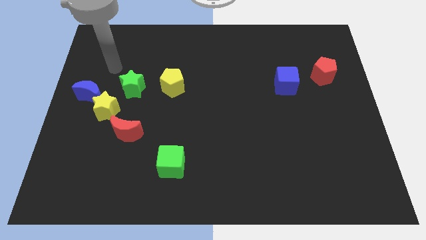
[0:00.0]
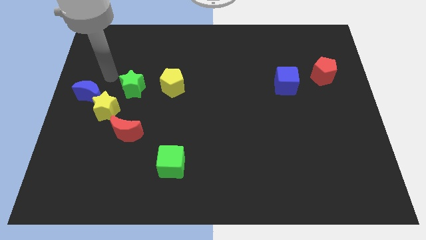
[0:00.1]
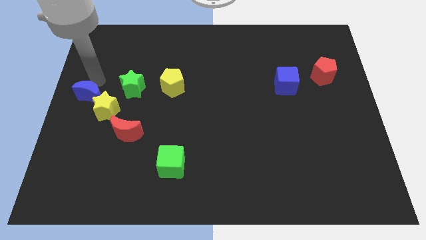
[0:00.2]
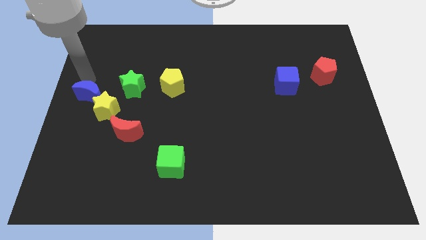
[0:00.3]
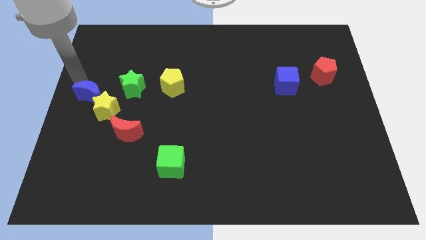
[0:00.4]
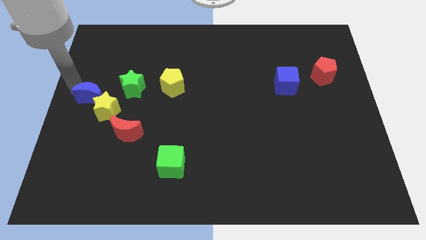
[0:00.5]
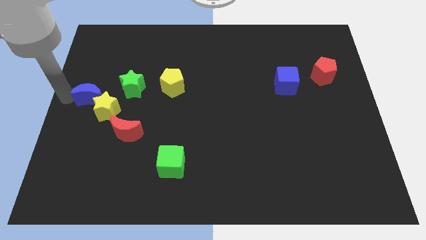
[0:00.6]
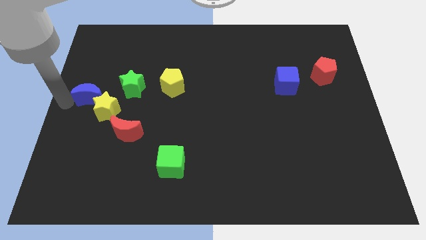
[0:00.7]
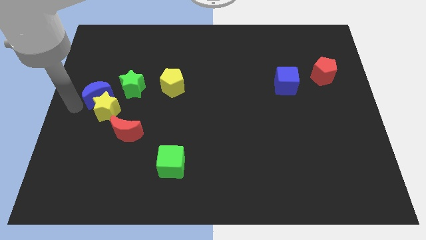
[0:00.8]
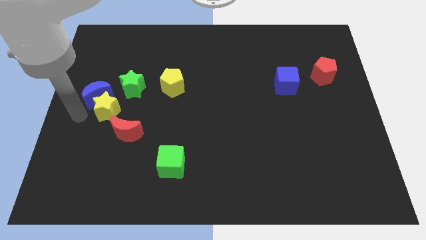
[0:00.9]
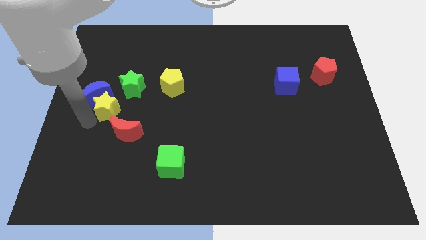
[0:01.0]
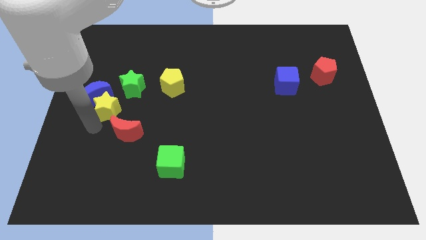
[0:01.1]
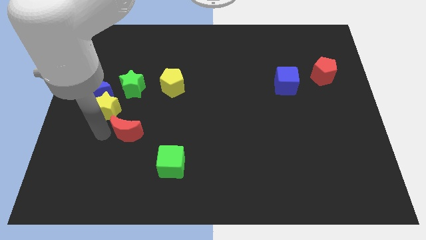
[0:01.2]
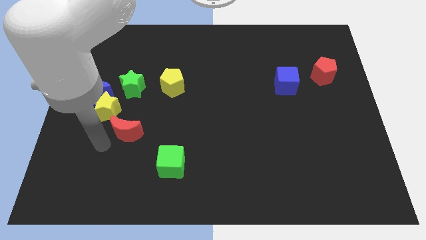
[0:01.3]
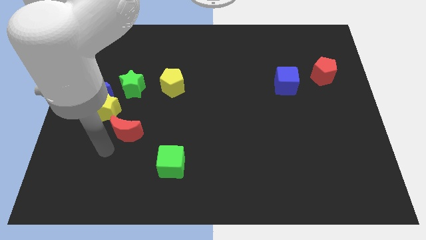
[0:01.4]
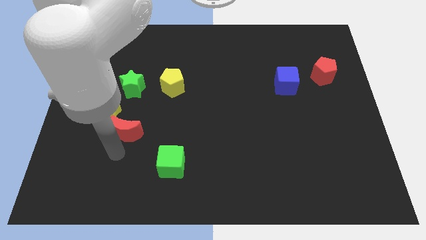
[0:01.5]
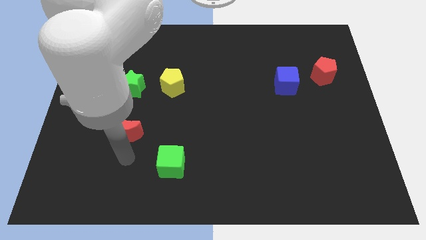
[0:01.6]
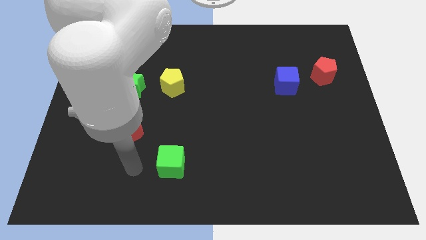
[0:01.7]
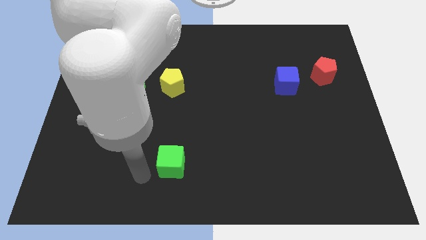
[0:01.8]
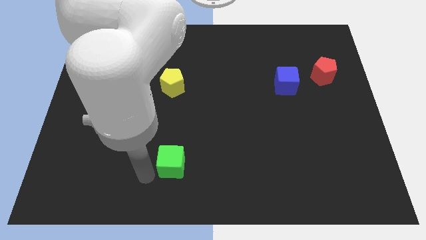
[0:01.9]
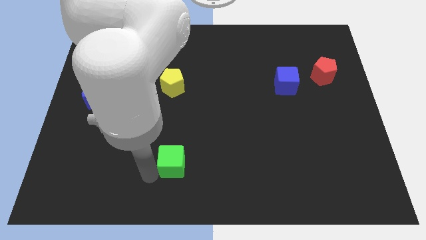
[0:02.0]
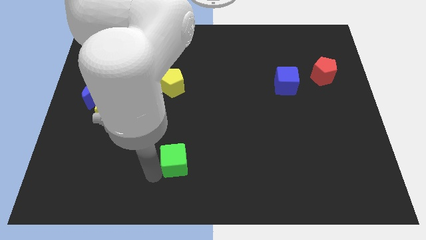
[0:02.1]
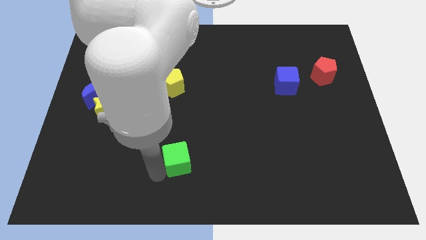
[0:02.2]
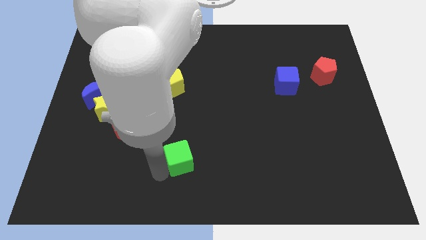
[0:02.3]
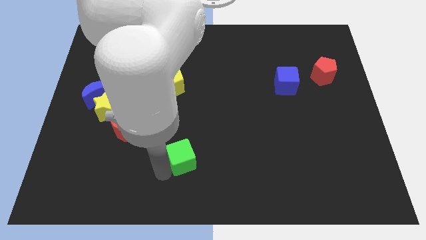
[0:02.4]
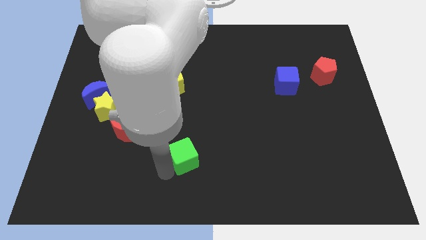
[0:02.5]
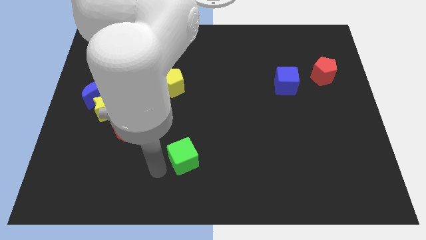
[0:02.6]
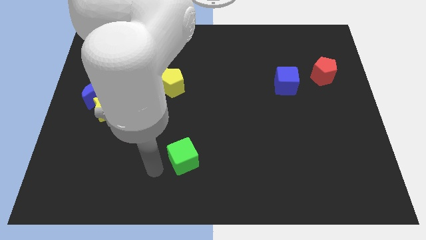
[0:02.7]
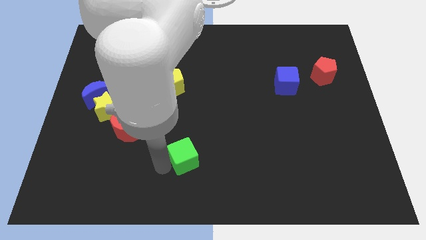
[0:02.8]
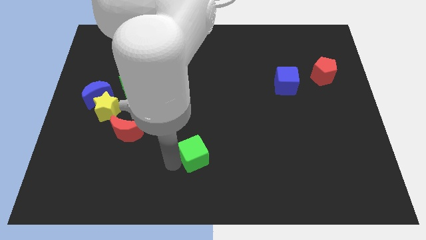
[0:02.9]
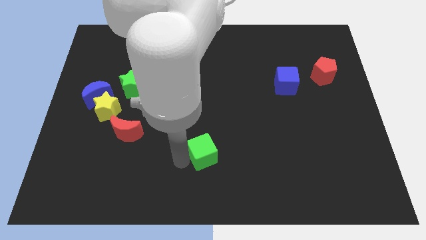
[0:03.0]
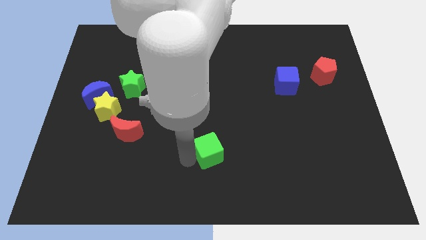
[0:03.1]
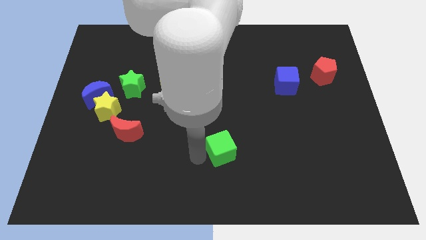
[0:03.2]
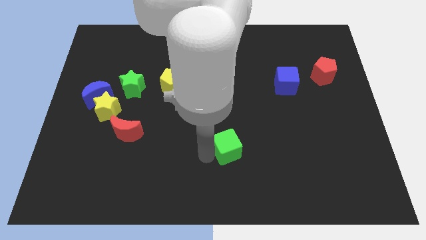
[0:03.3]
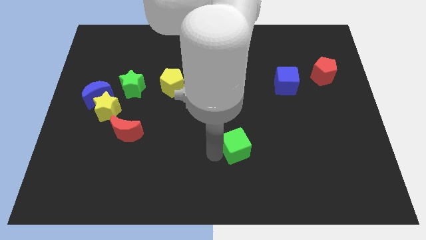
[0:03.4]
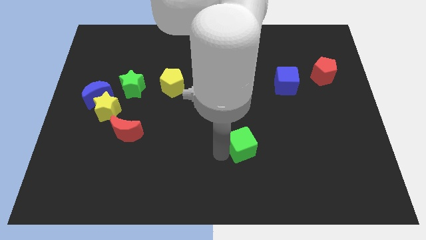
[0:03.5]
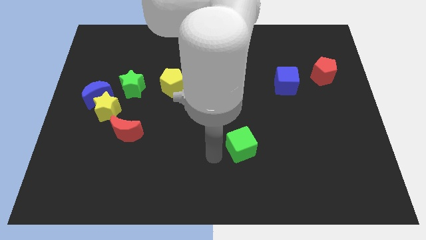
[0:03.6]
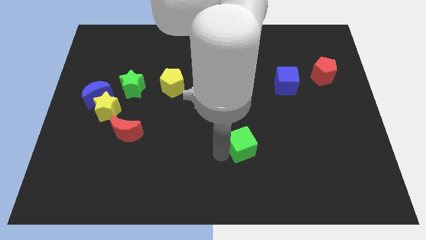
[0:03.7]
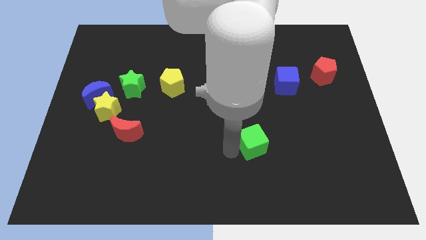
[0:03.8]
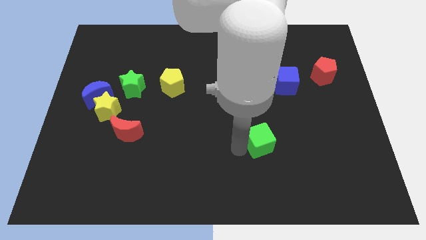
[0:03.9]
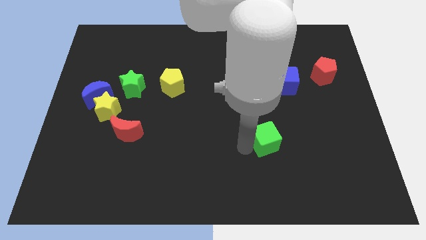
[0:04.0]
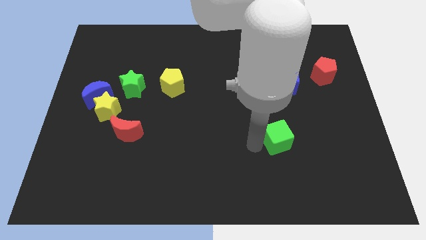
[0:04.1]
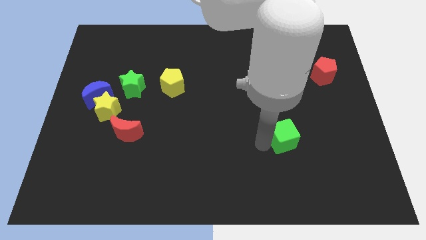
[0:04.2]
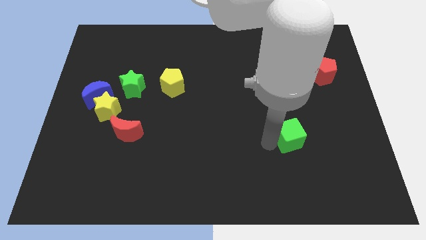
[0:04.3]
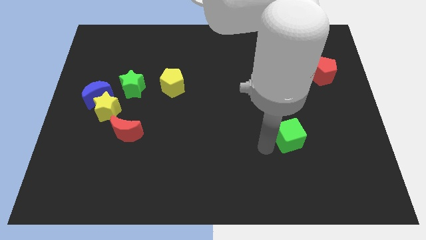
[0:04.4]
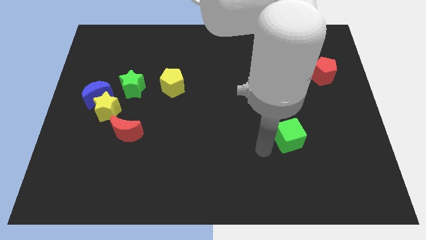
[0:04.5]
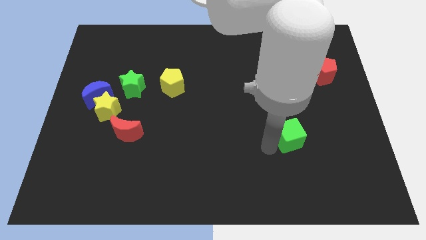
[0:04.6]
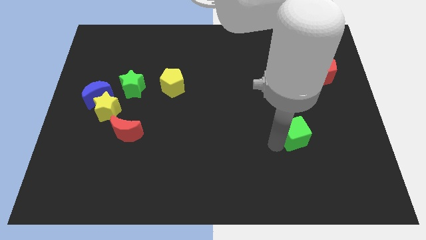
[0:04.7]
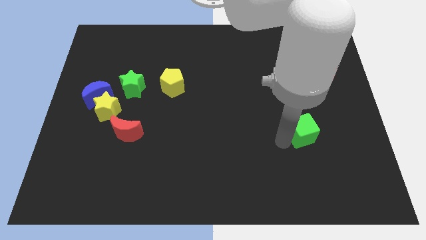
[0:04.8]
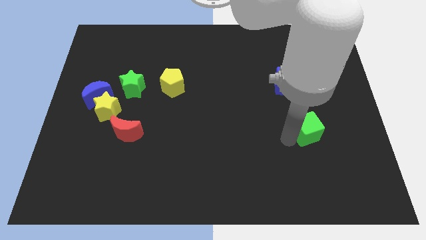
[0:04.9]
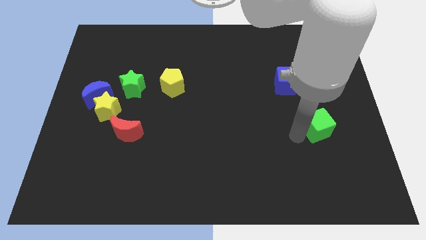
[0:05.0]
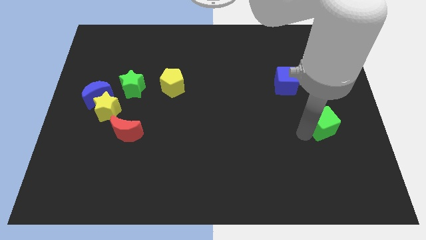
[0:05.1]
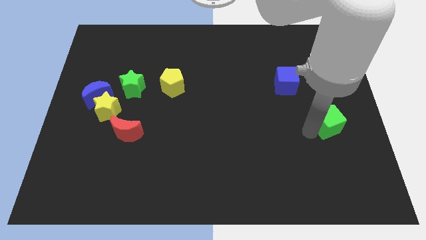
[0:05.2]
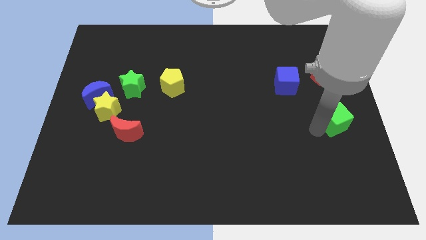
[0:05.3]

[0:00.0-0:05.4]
put the green cube to the center right

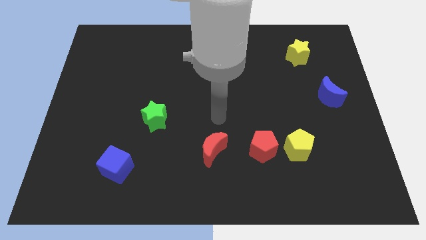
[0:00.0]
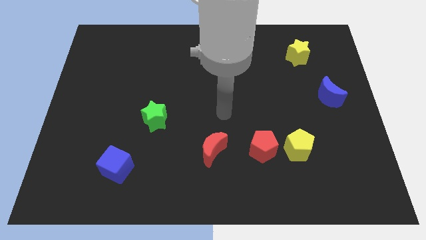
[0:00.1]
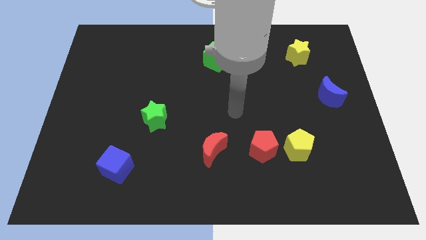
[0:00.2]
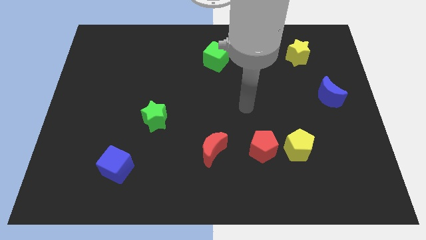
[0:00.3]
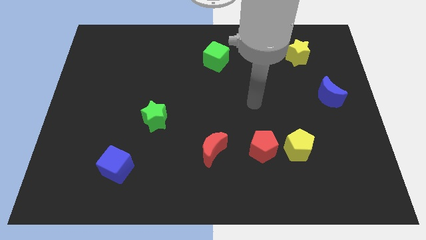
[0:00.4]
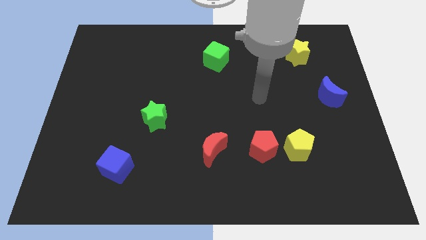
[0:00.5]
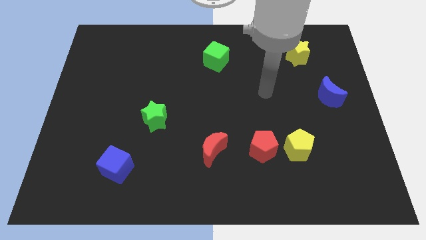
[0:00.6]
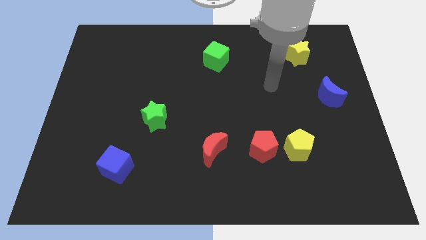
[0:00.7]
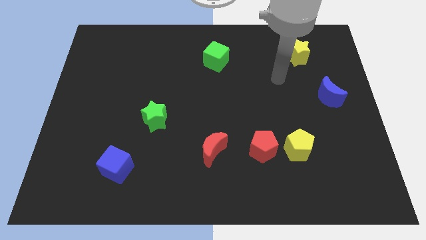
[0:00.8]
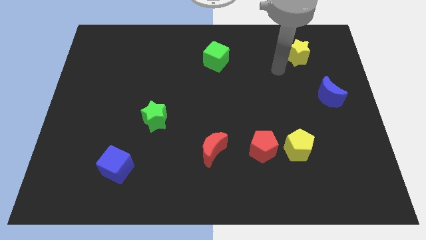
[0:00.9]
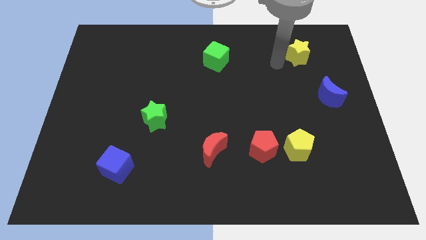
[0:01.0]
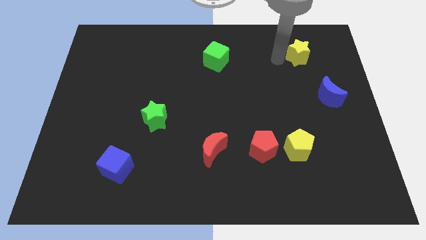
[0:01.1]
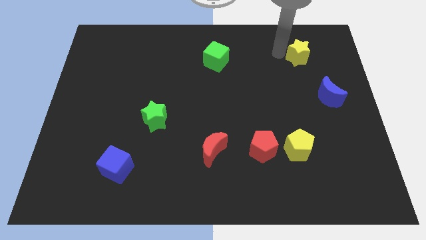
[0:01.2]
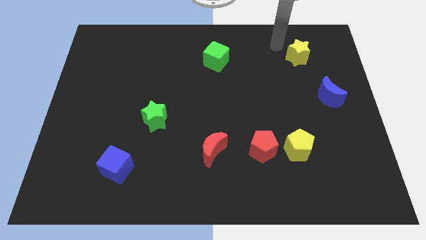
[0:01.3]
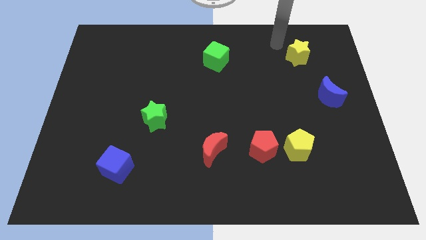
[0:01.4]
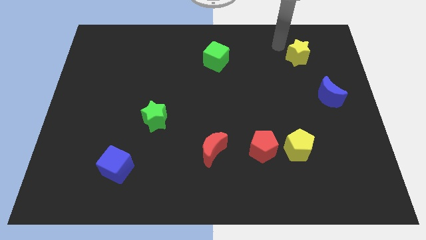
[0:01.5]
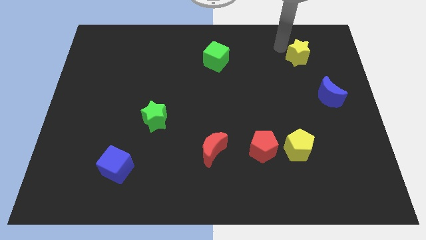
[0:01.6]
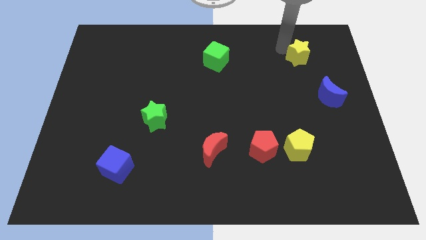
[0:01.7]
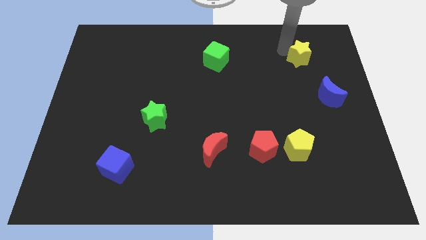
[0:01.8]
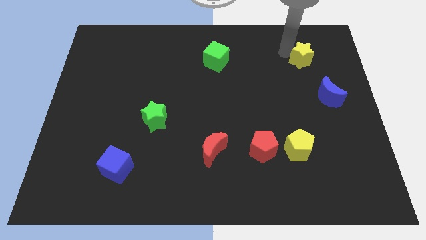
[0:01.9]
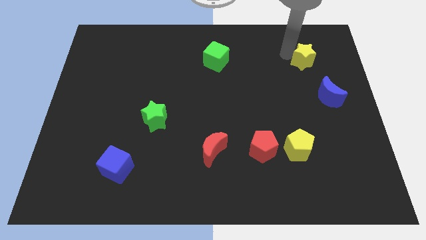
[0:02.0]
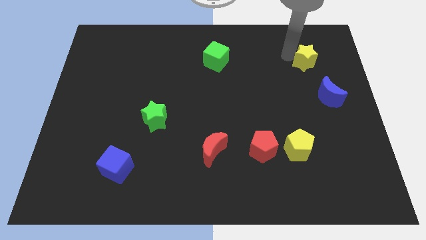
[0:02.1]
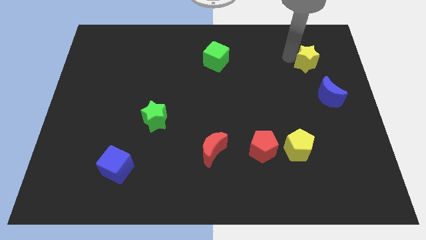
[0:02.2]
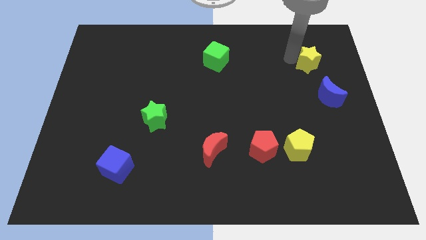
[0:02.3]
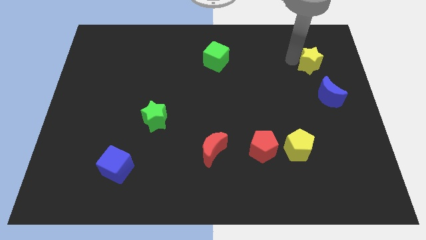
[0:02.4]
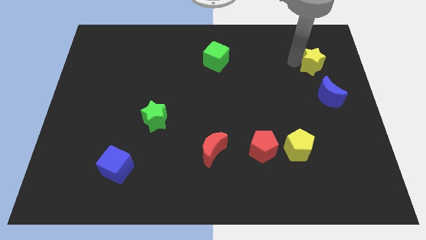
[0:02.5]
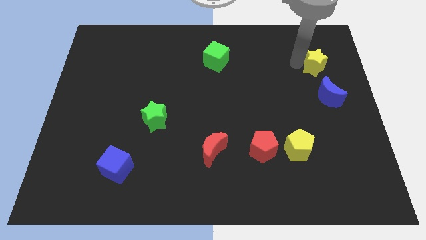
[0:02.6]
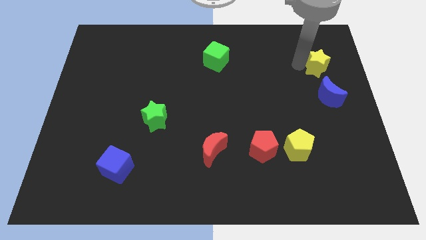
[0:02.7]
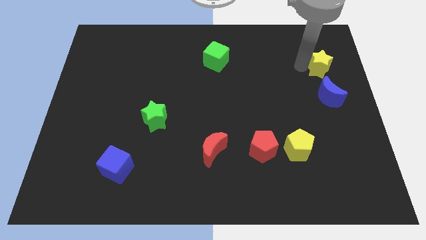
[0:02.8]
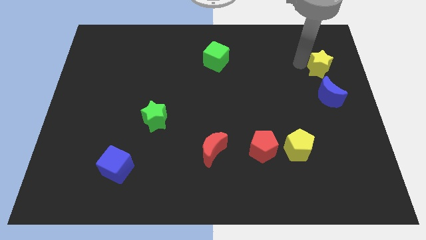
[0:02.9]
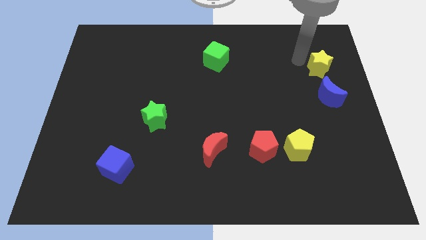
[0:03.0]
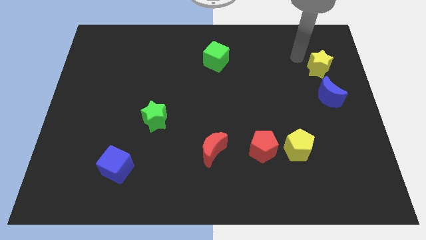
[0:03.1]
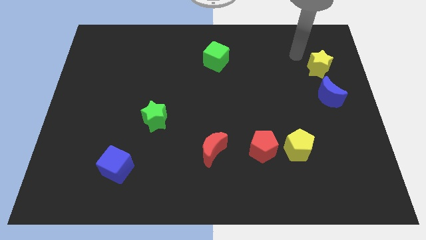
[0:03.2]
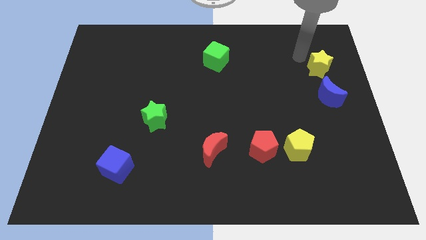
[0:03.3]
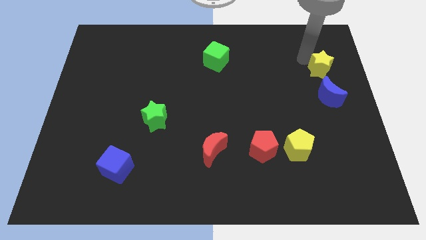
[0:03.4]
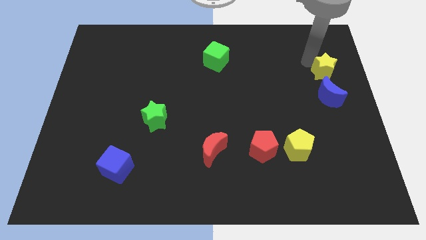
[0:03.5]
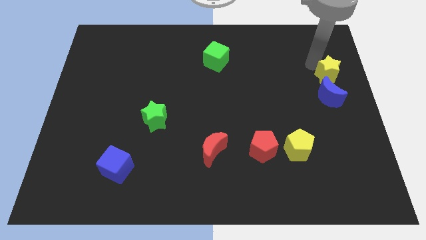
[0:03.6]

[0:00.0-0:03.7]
move the yellow star to the center right
